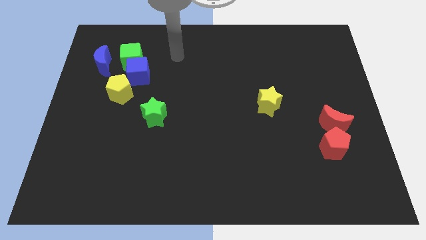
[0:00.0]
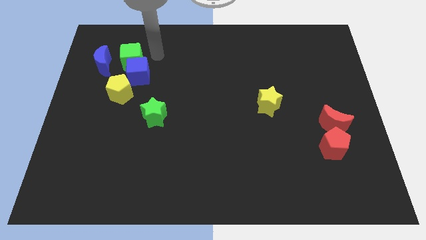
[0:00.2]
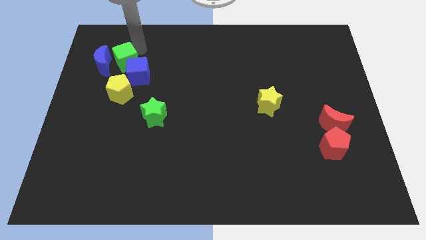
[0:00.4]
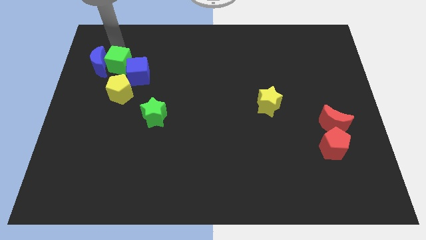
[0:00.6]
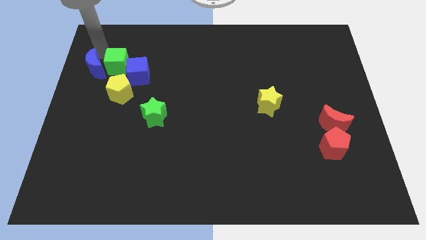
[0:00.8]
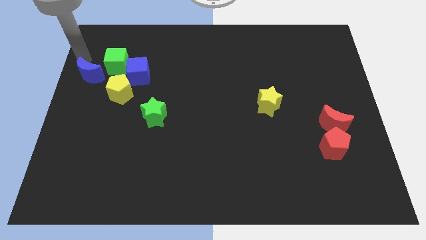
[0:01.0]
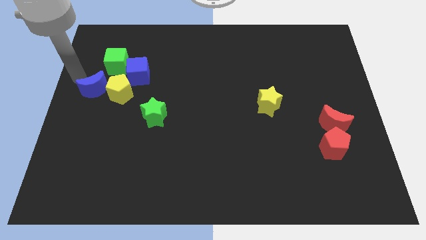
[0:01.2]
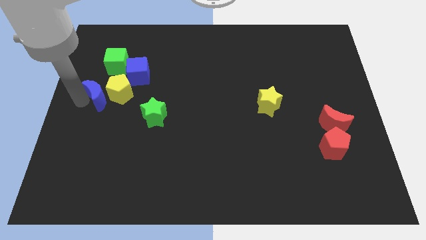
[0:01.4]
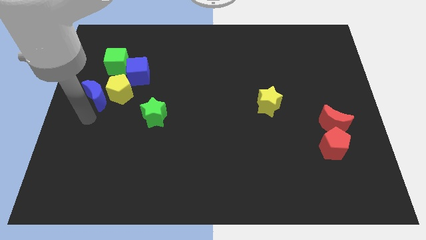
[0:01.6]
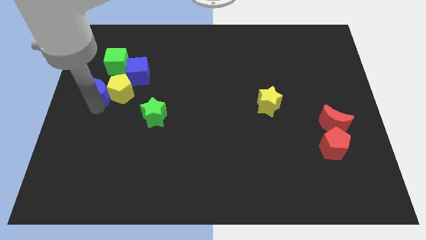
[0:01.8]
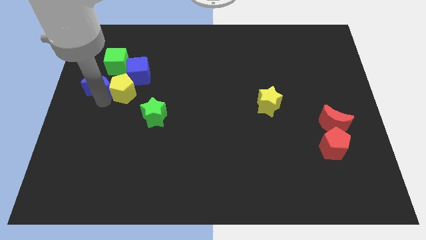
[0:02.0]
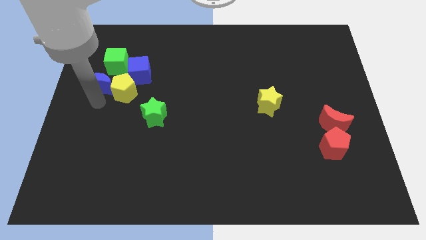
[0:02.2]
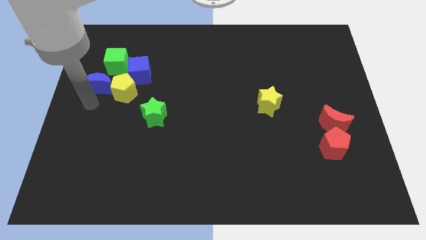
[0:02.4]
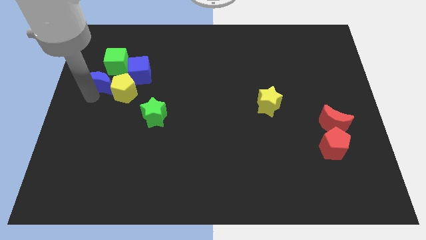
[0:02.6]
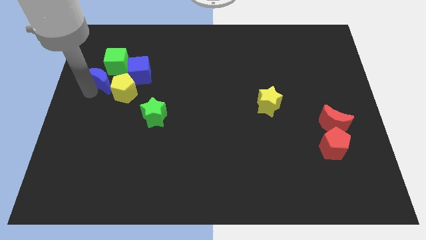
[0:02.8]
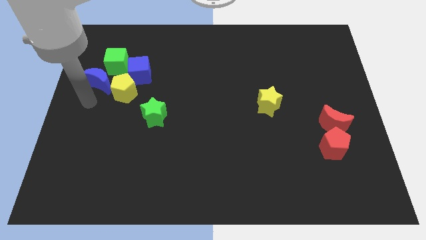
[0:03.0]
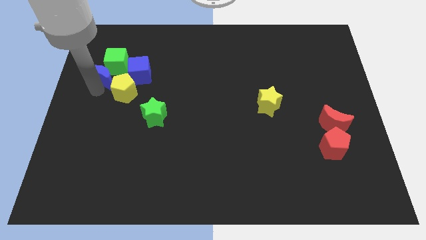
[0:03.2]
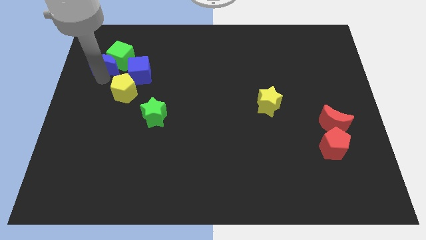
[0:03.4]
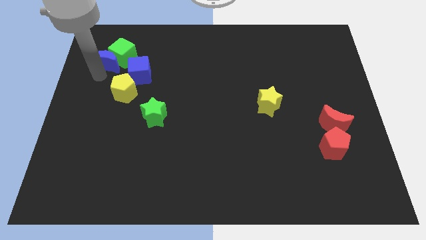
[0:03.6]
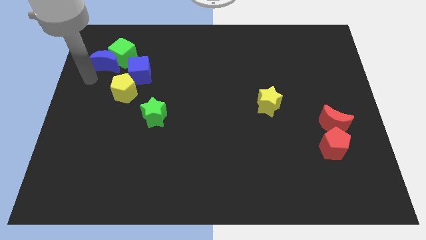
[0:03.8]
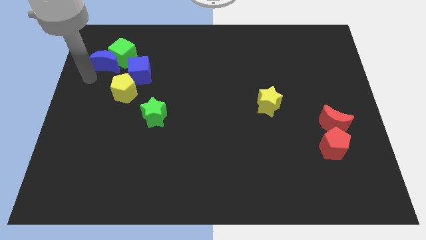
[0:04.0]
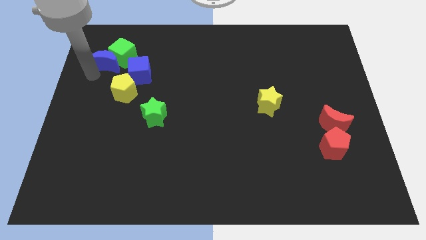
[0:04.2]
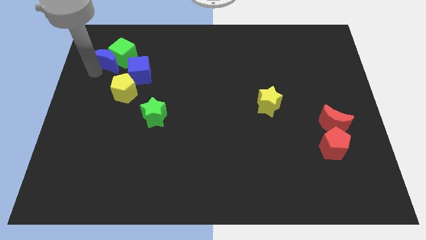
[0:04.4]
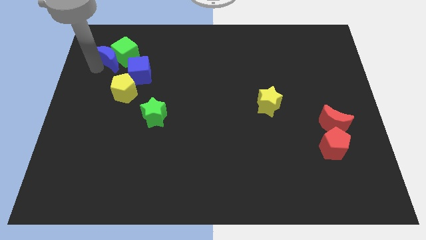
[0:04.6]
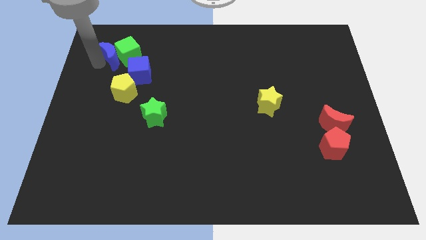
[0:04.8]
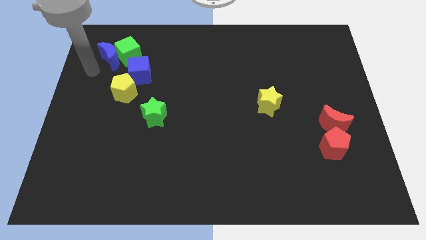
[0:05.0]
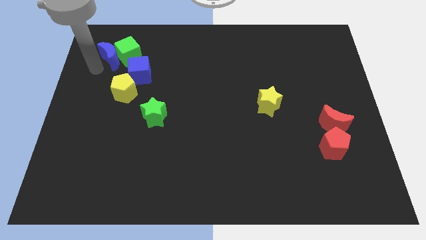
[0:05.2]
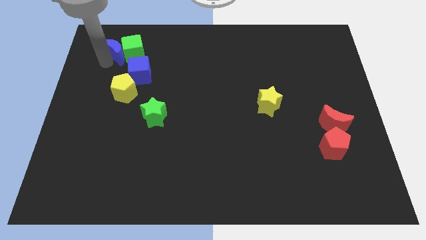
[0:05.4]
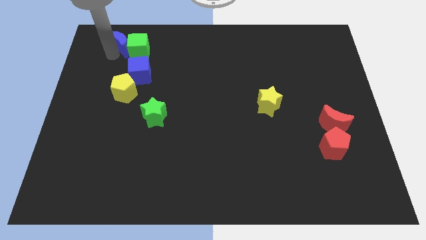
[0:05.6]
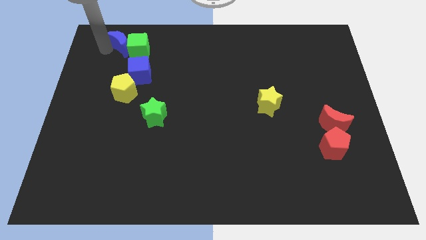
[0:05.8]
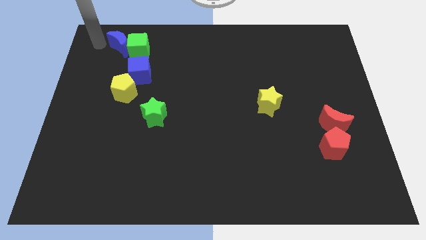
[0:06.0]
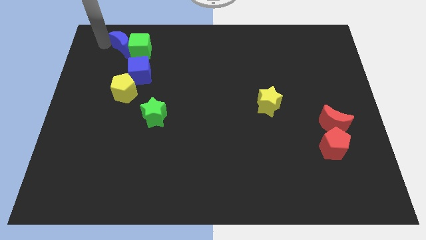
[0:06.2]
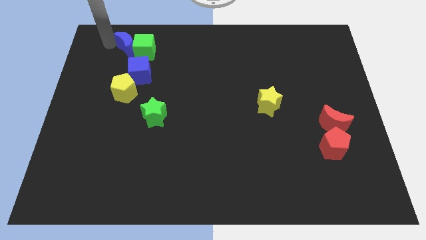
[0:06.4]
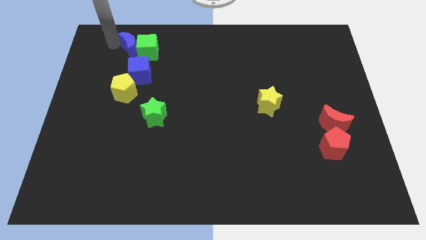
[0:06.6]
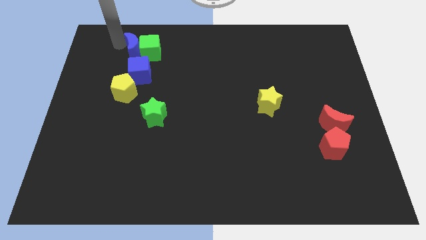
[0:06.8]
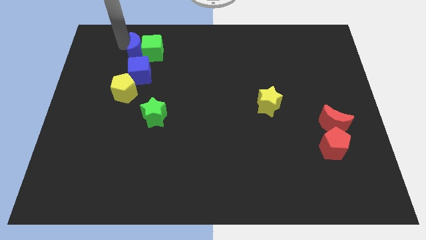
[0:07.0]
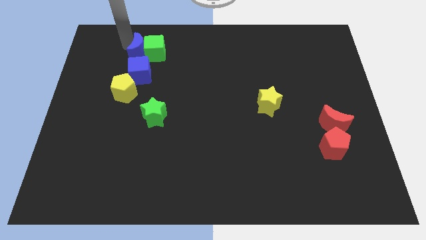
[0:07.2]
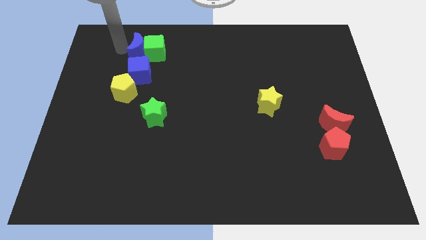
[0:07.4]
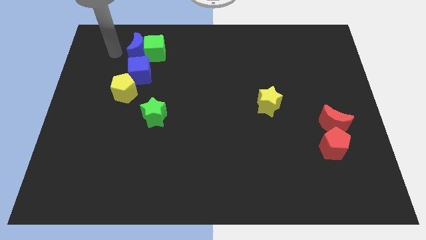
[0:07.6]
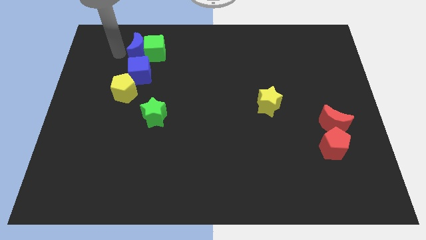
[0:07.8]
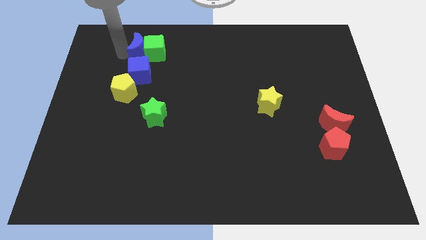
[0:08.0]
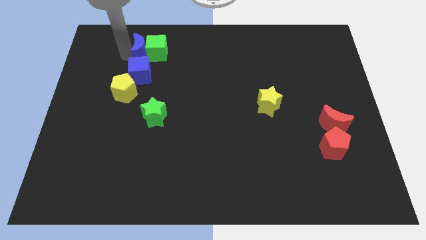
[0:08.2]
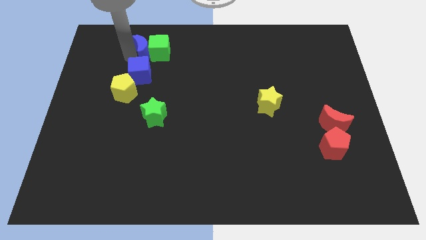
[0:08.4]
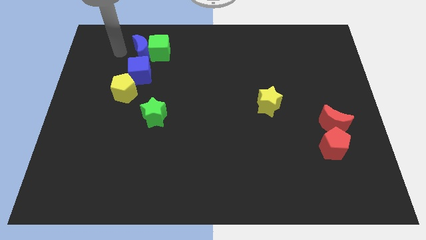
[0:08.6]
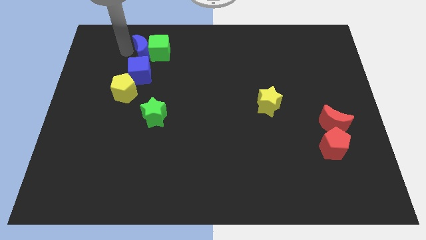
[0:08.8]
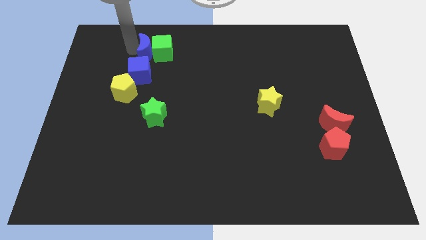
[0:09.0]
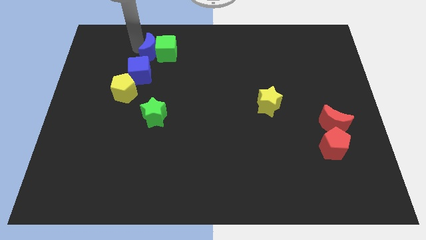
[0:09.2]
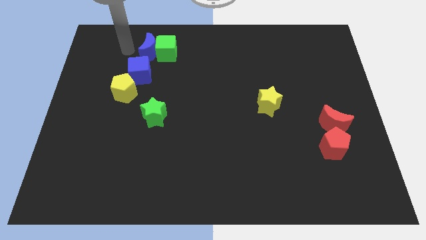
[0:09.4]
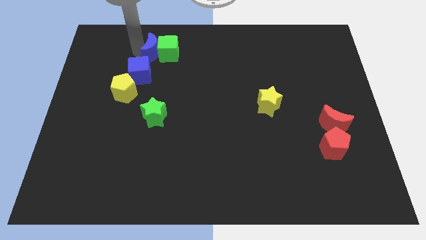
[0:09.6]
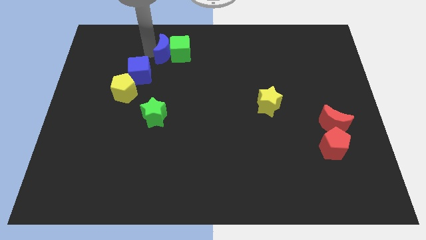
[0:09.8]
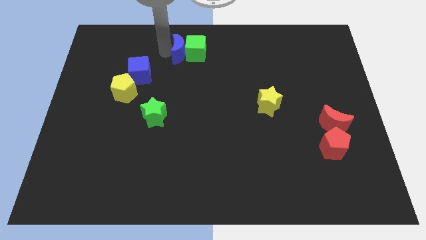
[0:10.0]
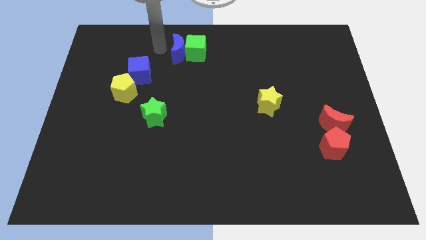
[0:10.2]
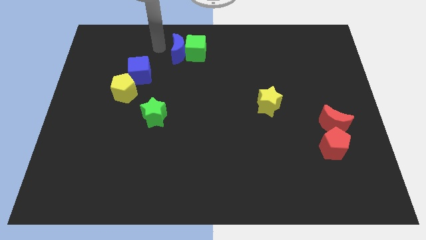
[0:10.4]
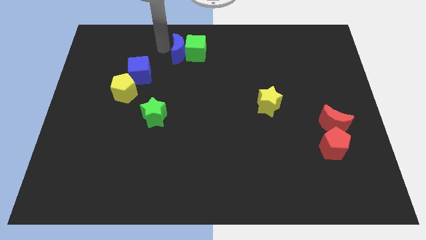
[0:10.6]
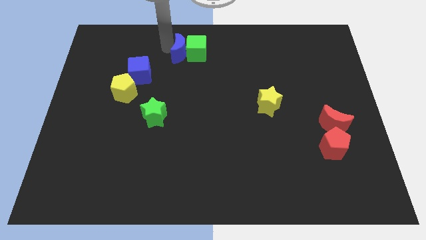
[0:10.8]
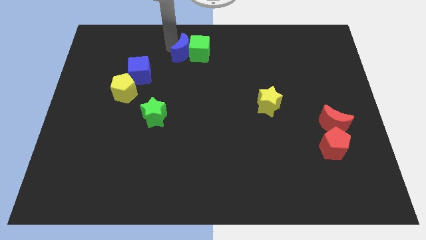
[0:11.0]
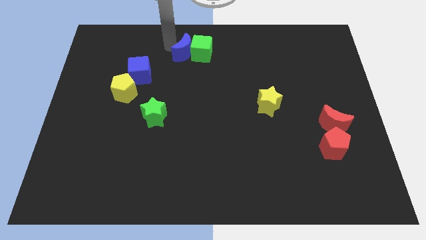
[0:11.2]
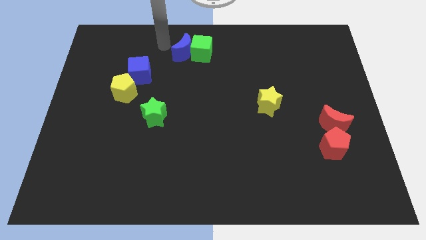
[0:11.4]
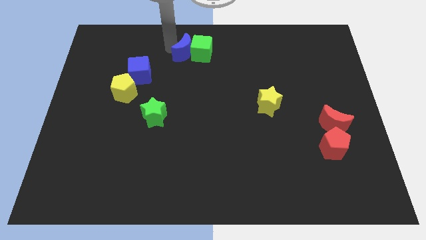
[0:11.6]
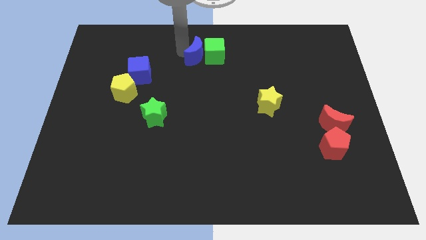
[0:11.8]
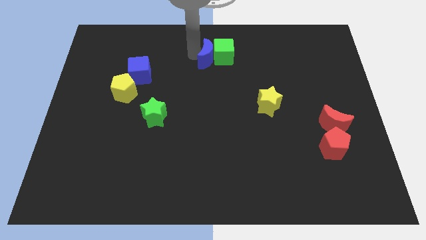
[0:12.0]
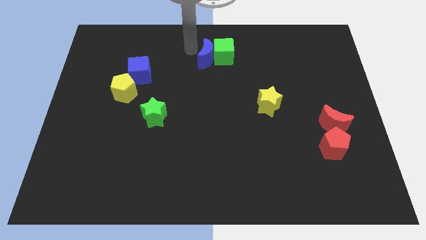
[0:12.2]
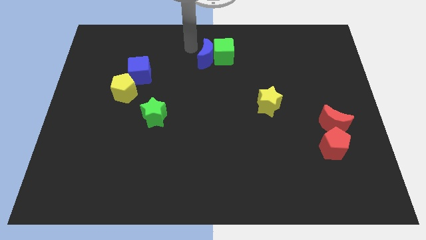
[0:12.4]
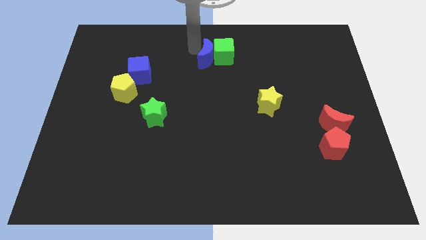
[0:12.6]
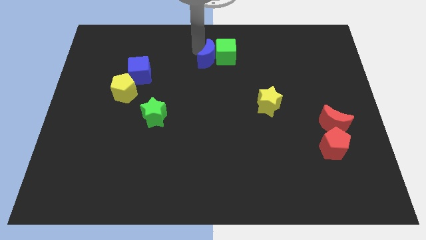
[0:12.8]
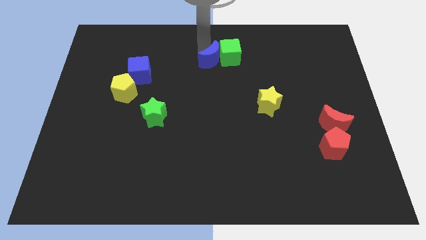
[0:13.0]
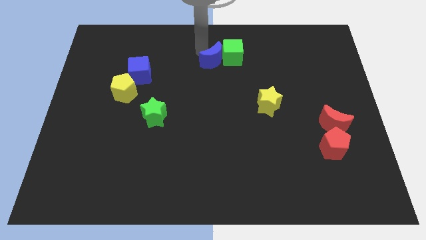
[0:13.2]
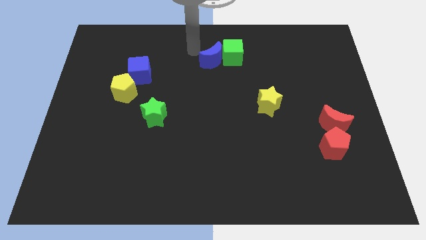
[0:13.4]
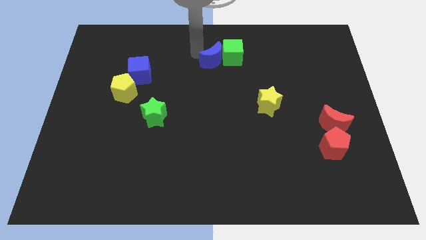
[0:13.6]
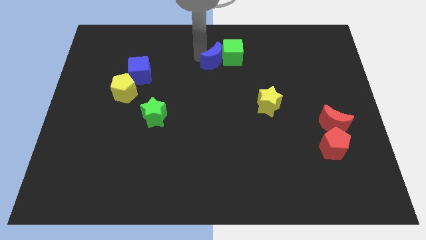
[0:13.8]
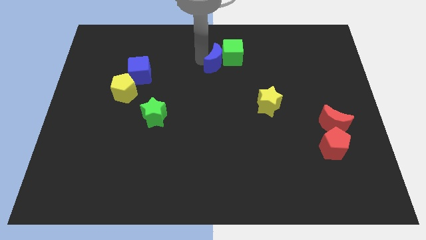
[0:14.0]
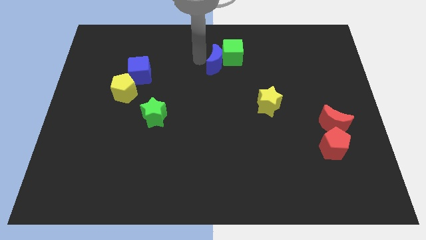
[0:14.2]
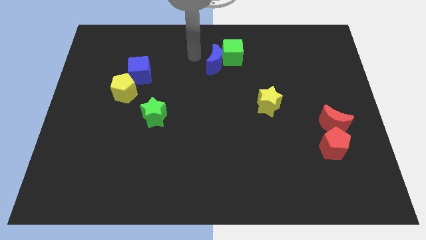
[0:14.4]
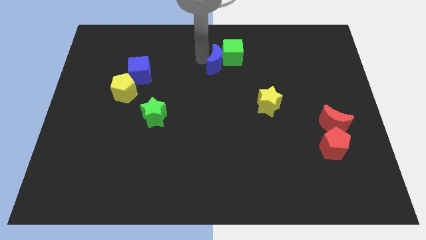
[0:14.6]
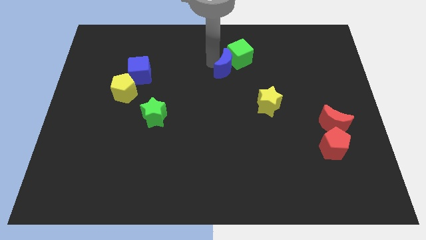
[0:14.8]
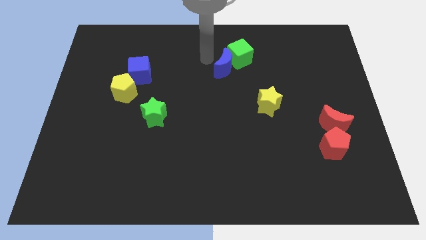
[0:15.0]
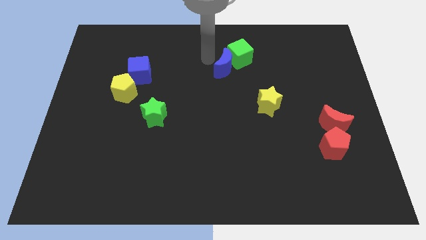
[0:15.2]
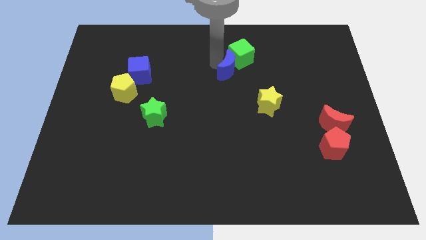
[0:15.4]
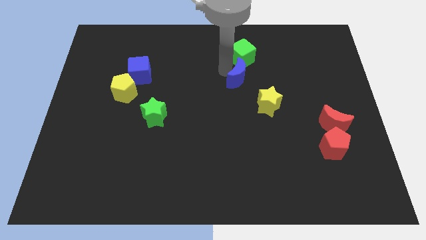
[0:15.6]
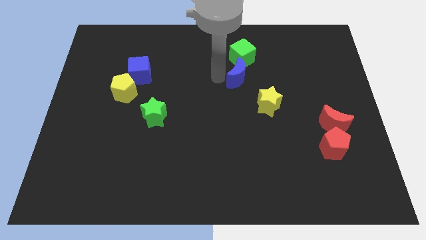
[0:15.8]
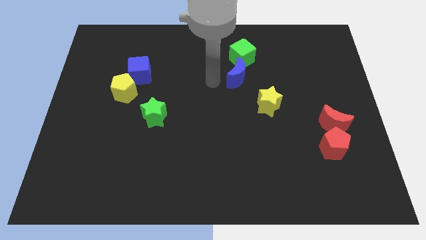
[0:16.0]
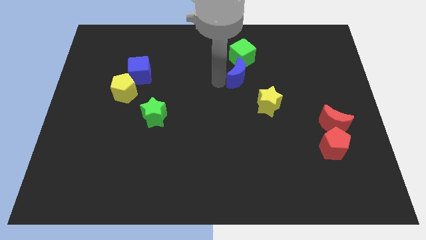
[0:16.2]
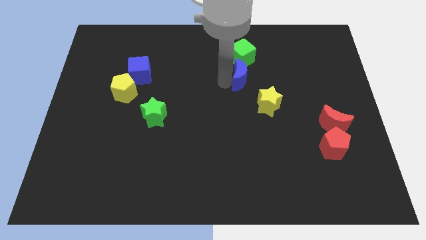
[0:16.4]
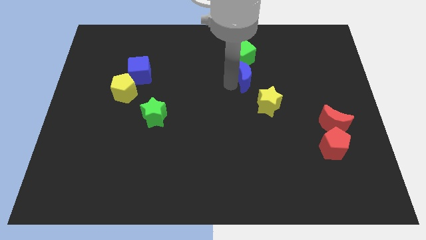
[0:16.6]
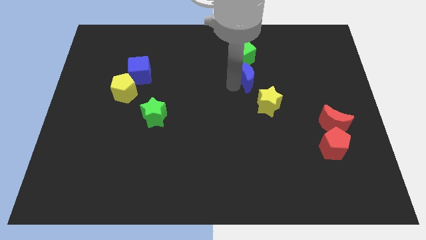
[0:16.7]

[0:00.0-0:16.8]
move the blue moon to the top of the yellow star
